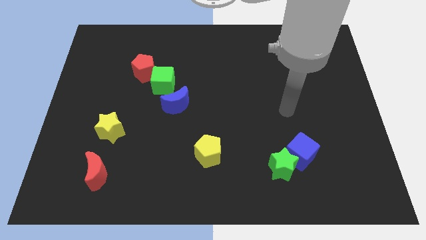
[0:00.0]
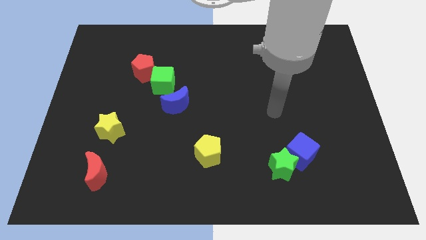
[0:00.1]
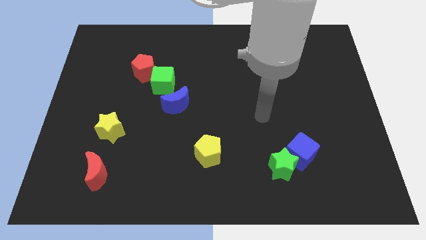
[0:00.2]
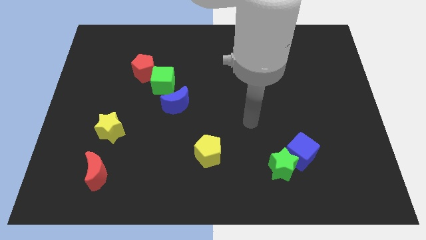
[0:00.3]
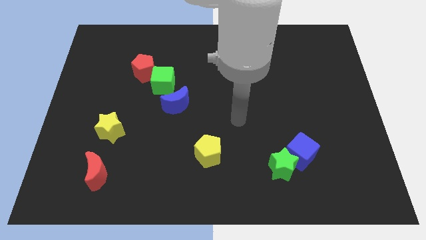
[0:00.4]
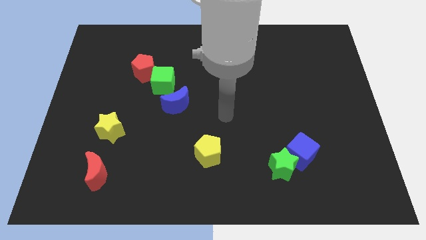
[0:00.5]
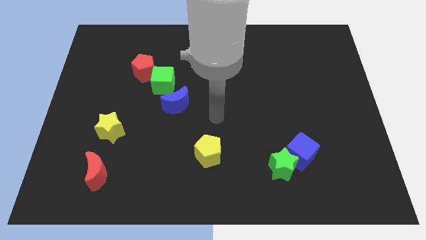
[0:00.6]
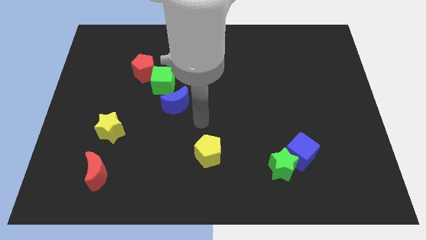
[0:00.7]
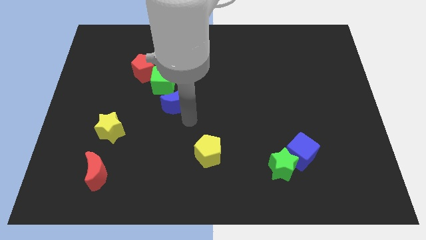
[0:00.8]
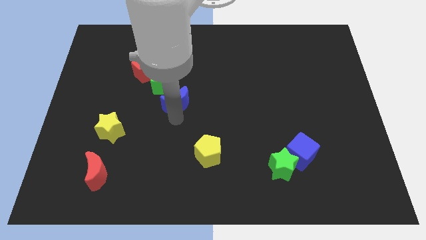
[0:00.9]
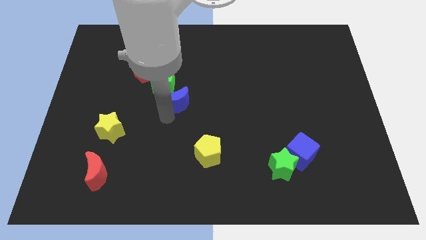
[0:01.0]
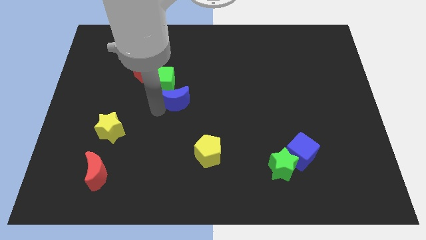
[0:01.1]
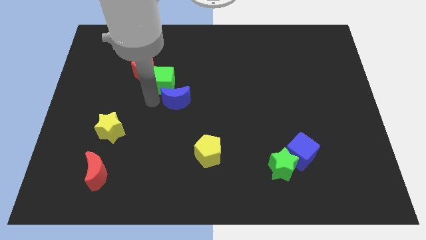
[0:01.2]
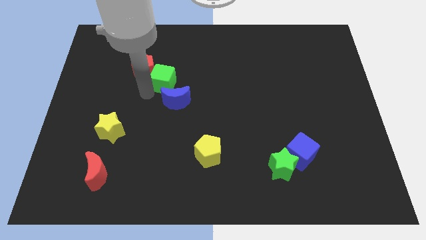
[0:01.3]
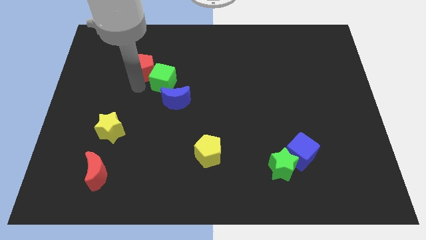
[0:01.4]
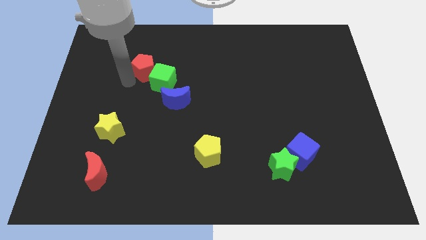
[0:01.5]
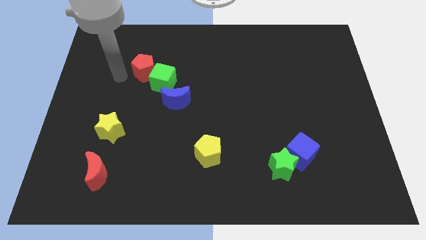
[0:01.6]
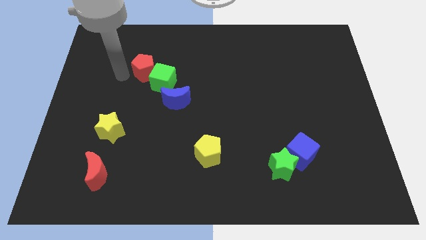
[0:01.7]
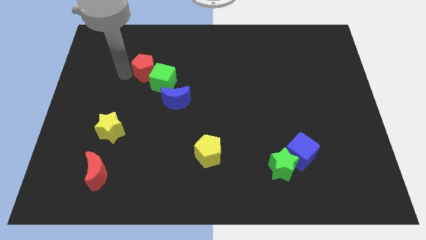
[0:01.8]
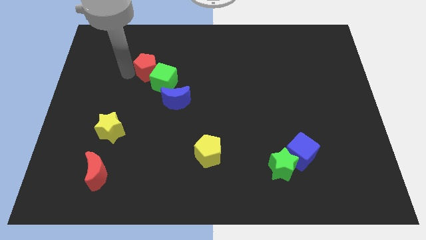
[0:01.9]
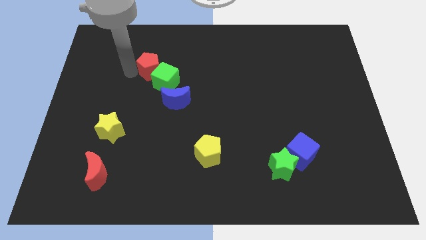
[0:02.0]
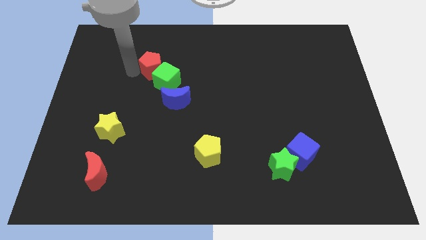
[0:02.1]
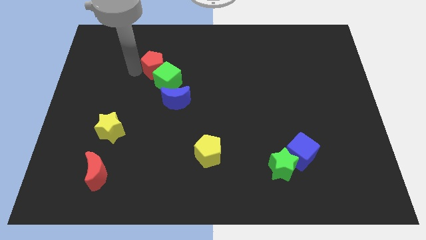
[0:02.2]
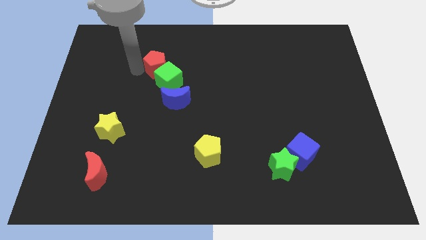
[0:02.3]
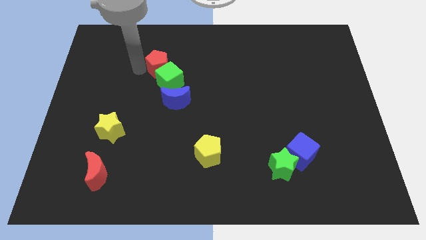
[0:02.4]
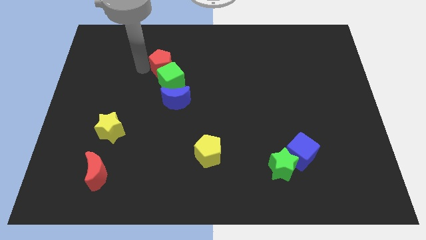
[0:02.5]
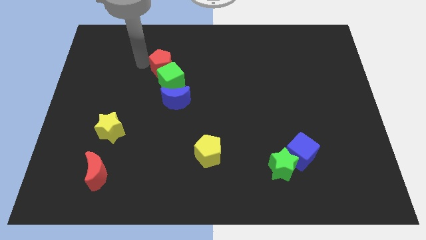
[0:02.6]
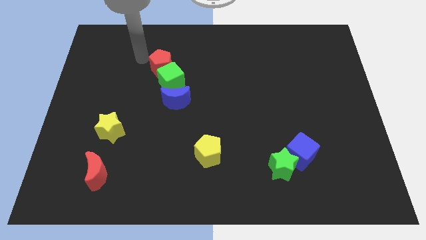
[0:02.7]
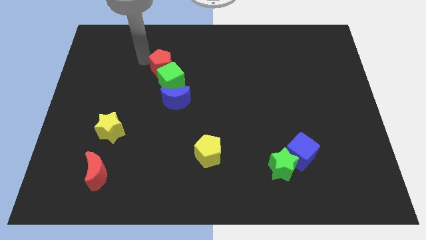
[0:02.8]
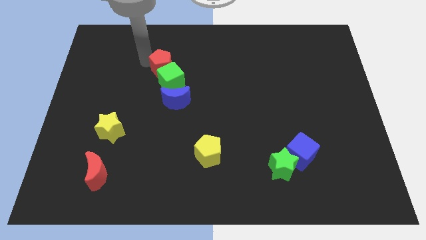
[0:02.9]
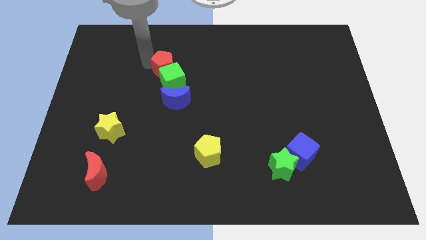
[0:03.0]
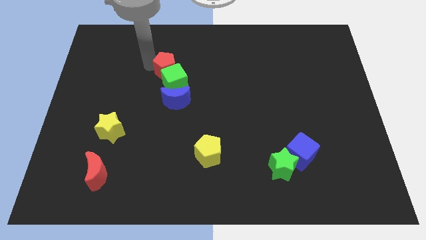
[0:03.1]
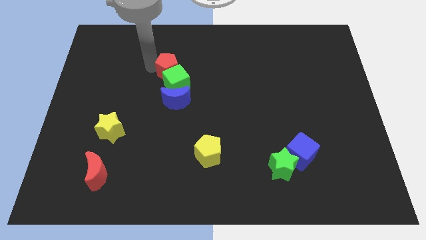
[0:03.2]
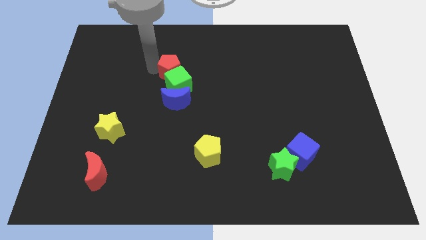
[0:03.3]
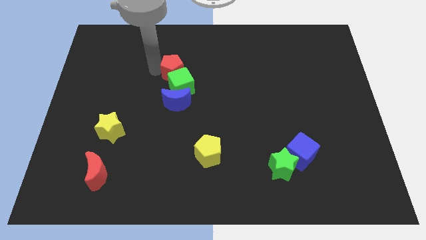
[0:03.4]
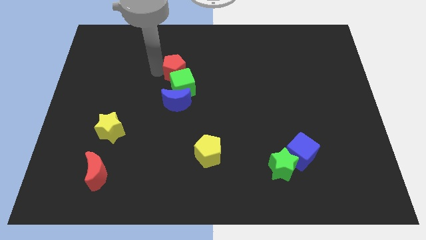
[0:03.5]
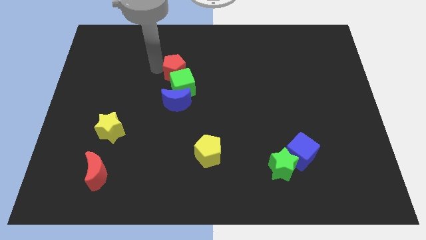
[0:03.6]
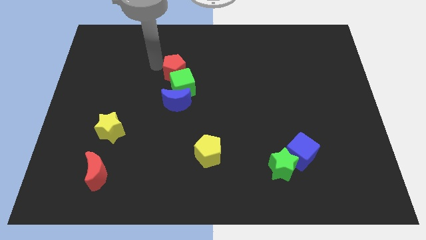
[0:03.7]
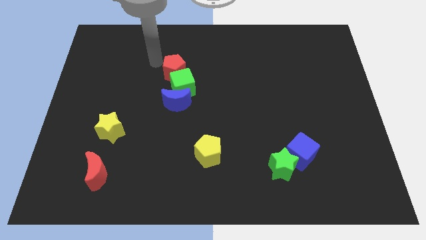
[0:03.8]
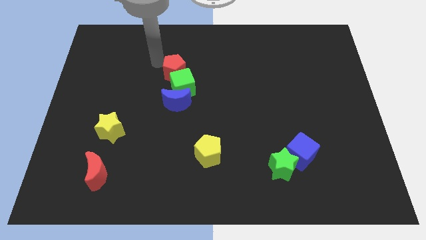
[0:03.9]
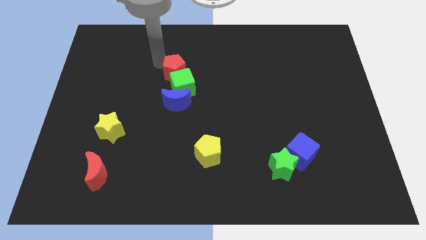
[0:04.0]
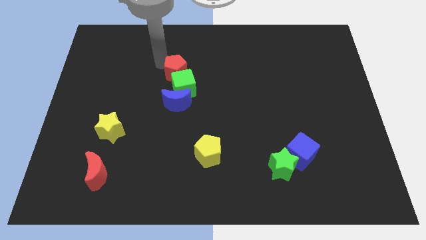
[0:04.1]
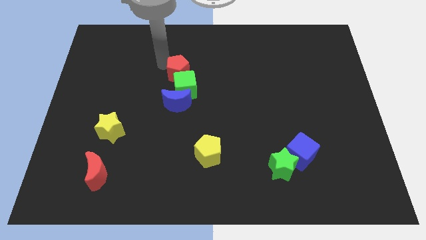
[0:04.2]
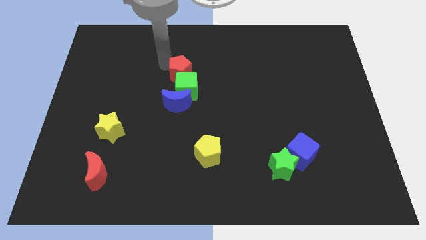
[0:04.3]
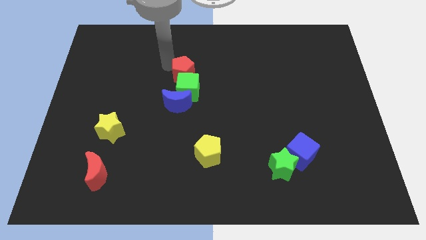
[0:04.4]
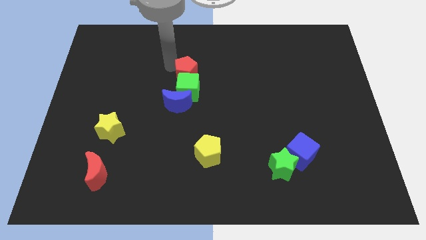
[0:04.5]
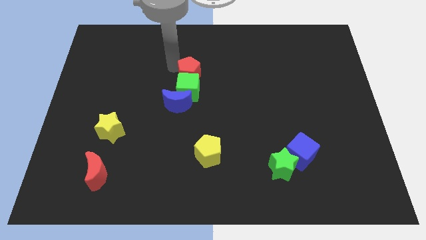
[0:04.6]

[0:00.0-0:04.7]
put the red pentagon diagonally up and to the right of the blue moon

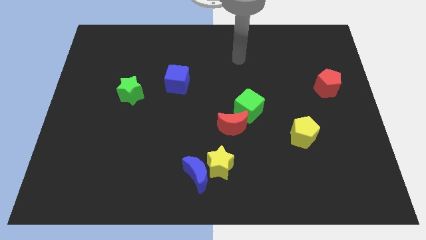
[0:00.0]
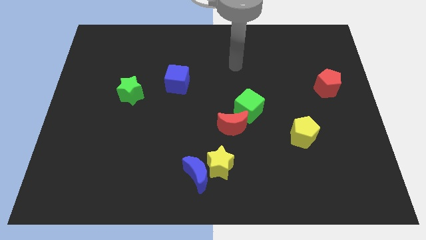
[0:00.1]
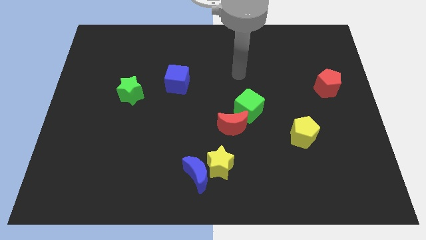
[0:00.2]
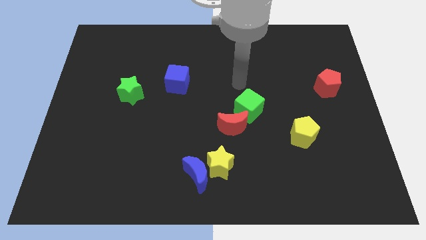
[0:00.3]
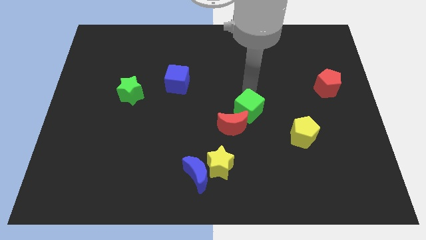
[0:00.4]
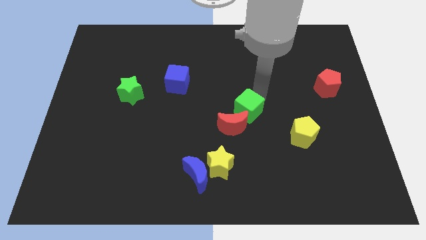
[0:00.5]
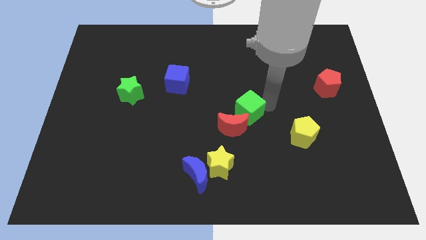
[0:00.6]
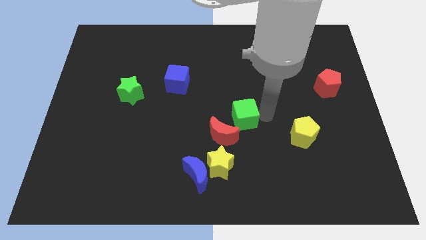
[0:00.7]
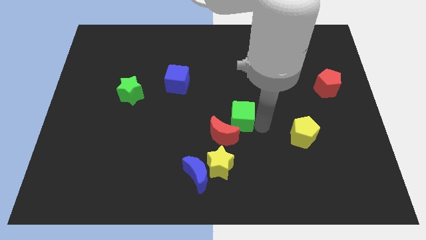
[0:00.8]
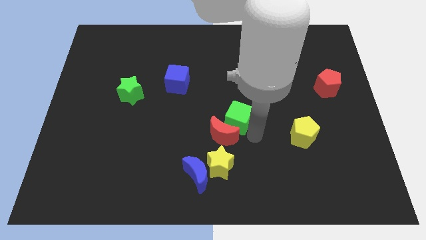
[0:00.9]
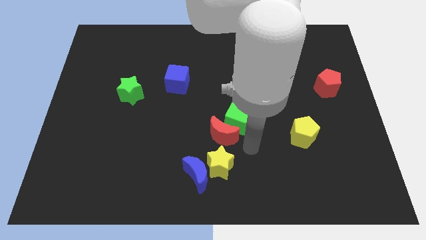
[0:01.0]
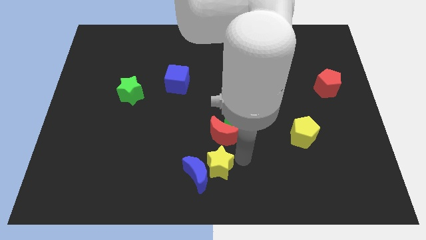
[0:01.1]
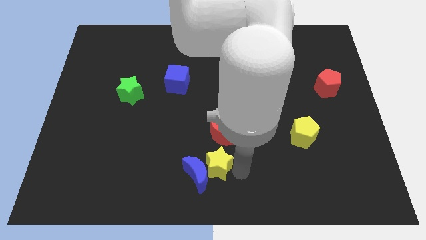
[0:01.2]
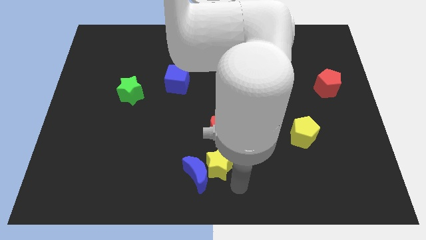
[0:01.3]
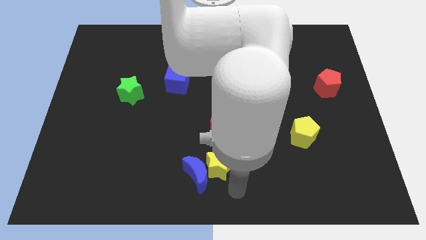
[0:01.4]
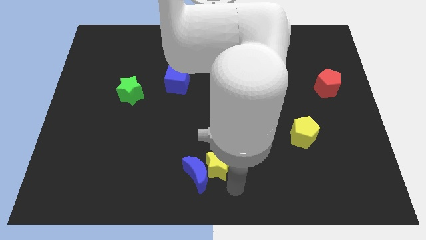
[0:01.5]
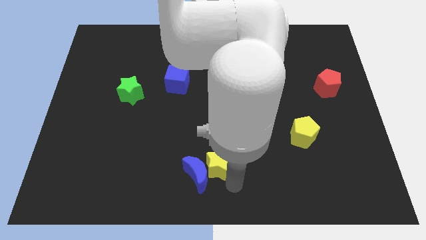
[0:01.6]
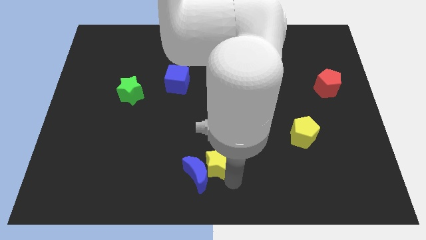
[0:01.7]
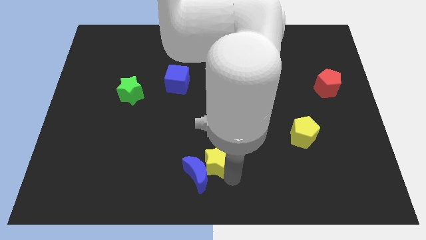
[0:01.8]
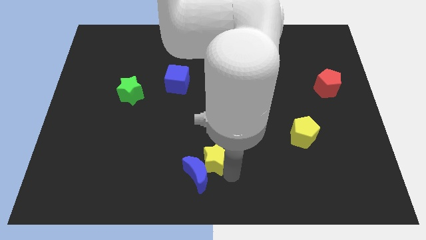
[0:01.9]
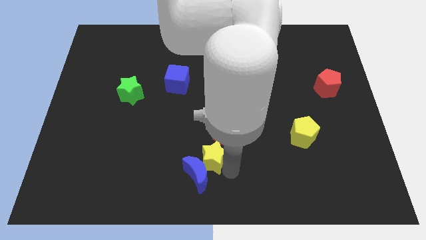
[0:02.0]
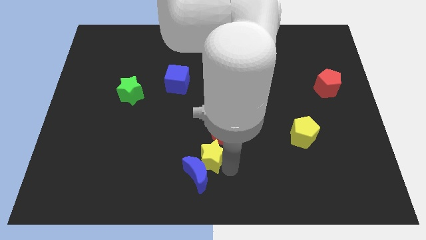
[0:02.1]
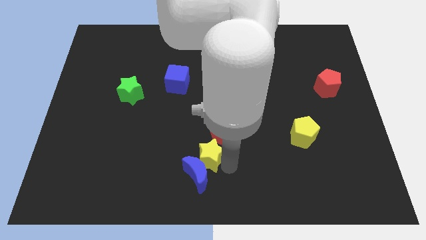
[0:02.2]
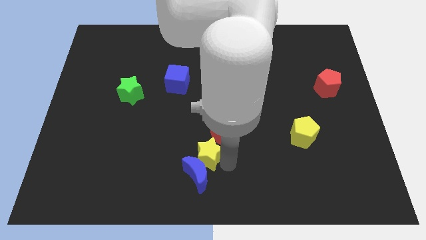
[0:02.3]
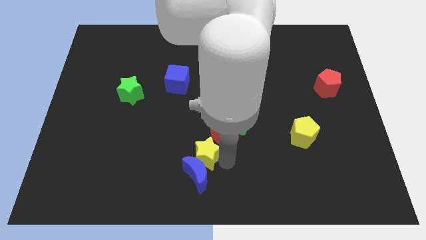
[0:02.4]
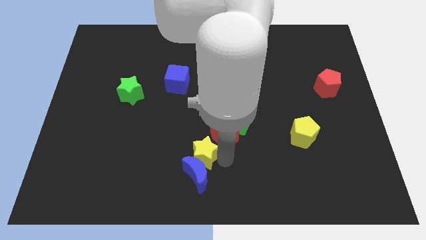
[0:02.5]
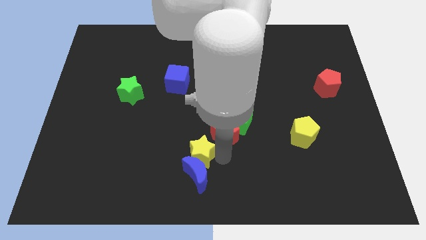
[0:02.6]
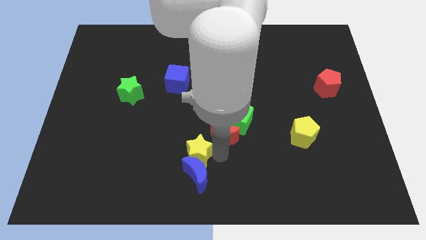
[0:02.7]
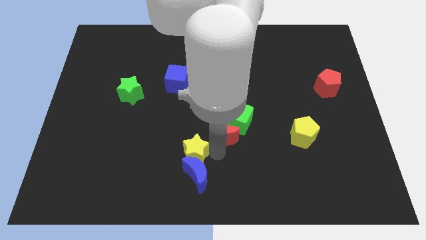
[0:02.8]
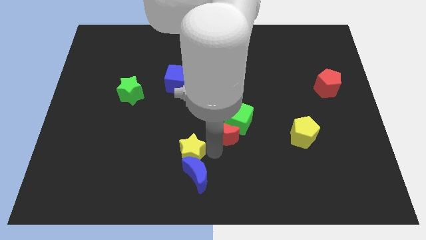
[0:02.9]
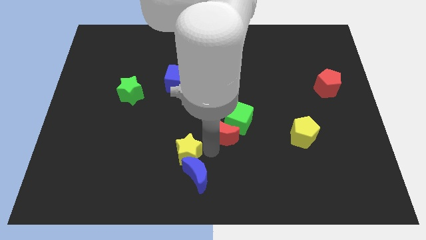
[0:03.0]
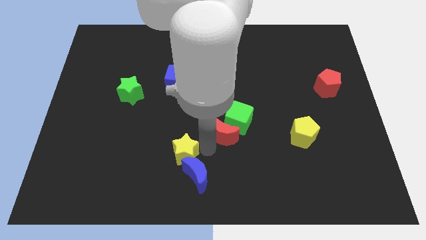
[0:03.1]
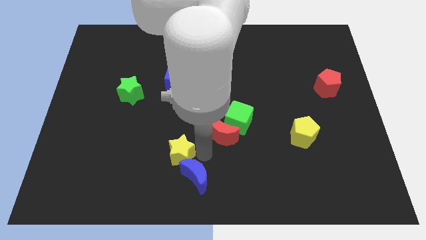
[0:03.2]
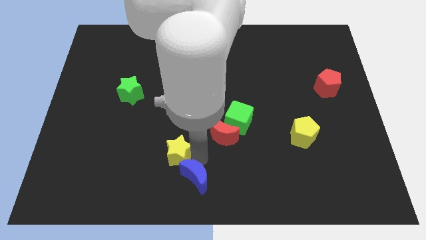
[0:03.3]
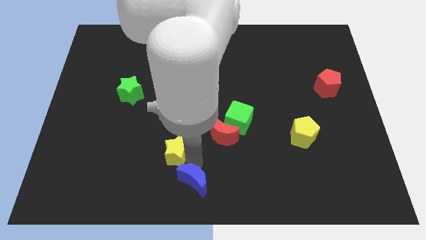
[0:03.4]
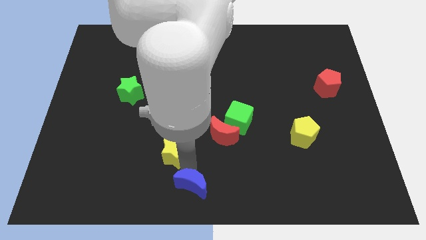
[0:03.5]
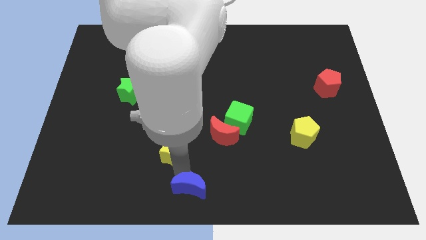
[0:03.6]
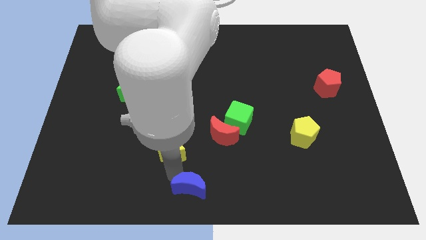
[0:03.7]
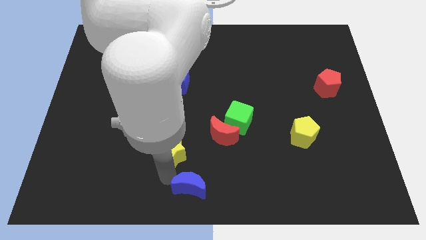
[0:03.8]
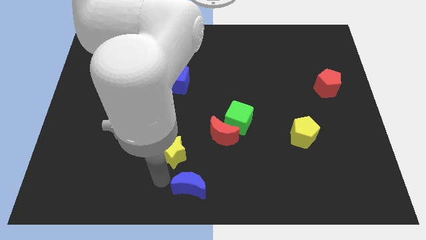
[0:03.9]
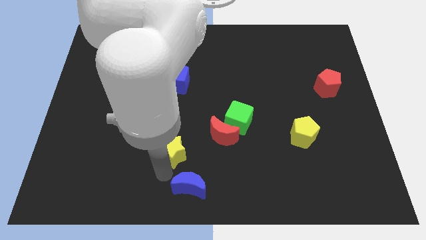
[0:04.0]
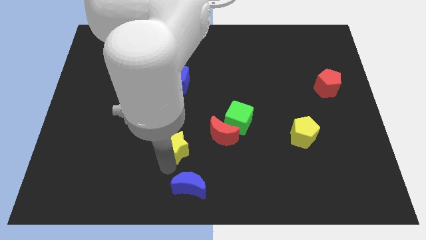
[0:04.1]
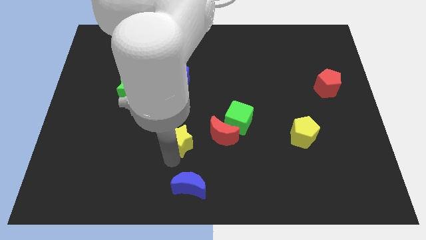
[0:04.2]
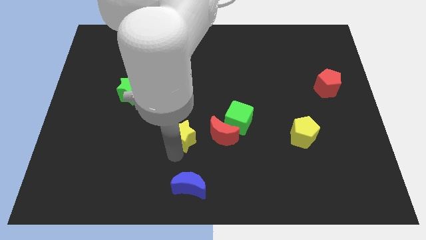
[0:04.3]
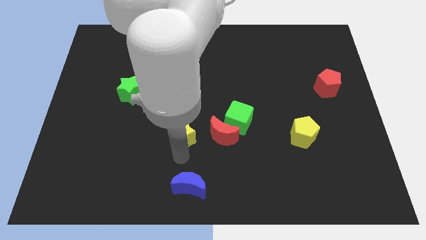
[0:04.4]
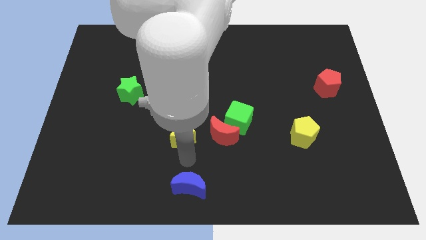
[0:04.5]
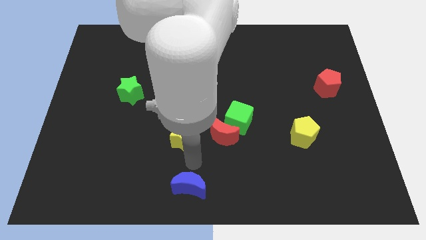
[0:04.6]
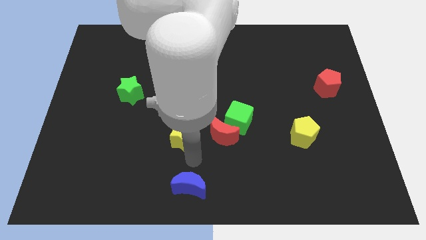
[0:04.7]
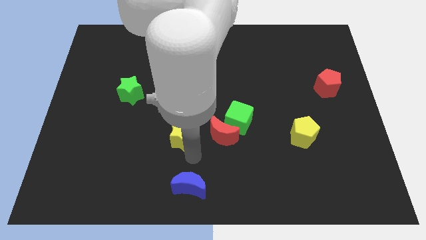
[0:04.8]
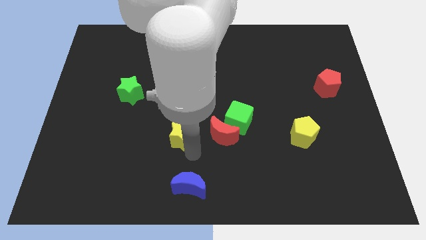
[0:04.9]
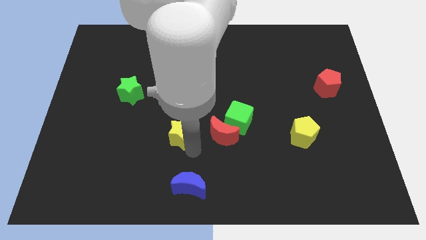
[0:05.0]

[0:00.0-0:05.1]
slide the yellow star to the bottom of the blue cube
